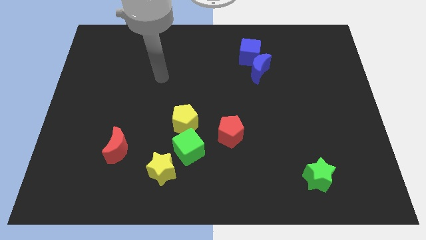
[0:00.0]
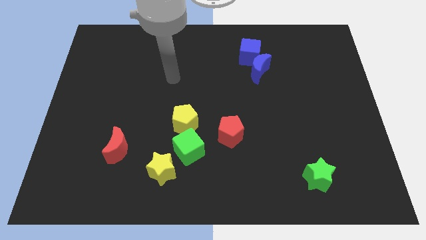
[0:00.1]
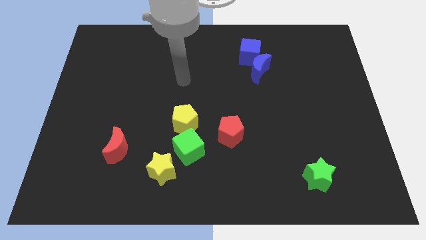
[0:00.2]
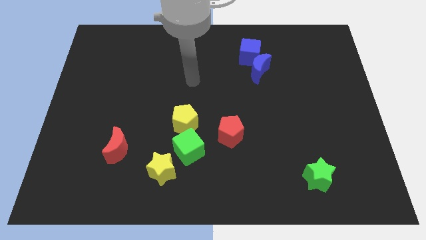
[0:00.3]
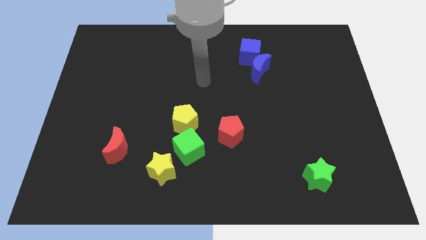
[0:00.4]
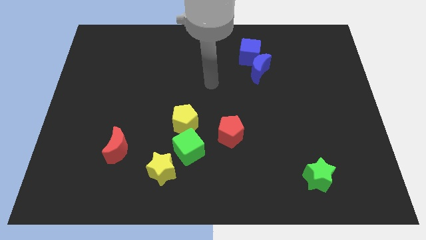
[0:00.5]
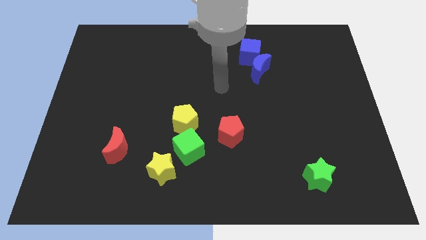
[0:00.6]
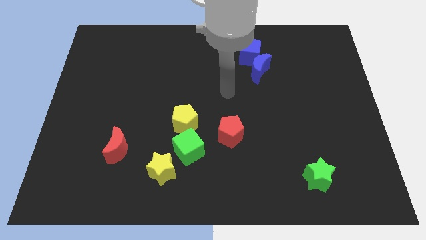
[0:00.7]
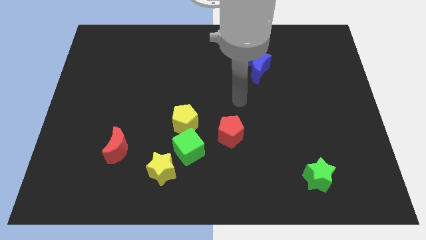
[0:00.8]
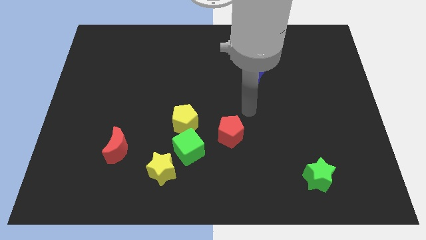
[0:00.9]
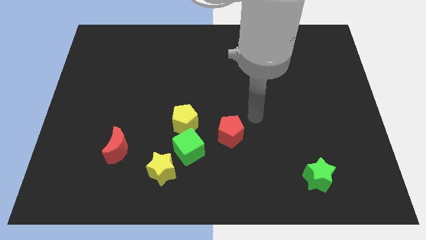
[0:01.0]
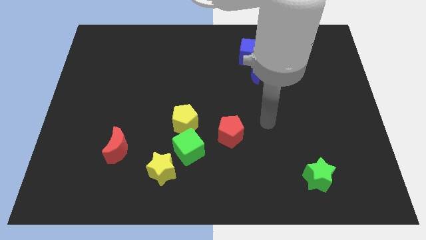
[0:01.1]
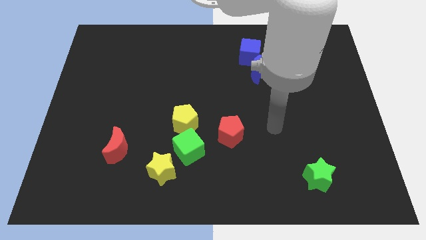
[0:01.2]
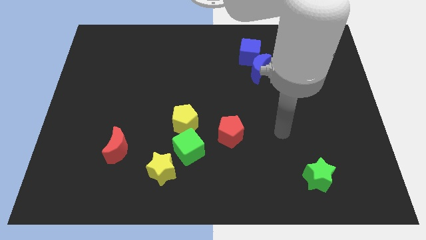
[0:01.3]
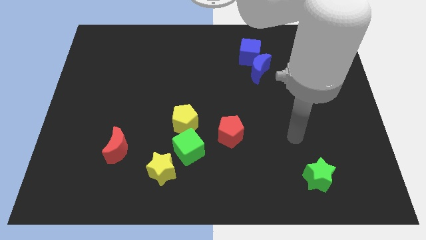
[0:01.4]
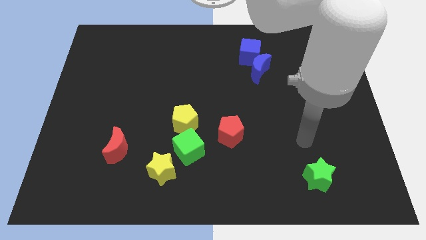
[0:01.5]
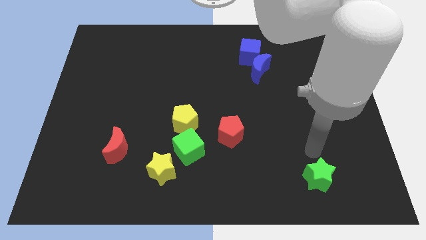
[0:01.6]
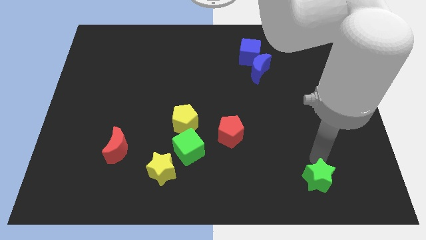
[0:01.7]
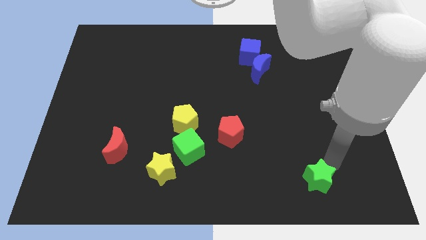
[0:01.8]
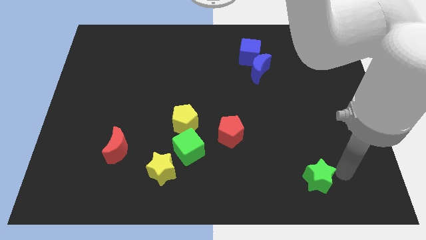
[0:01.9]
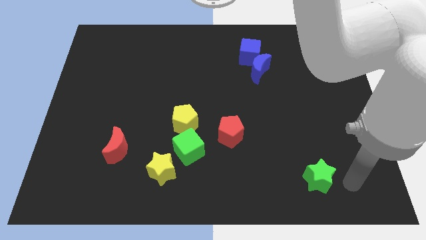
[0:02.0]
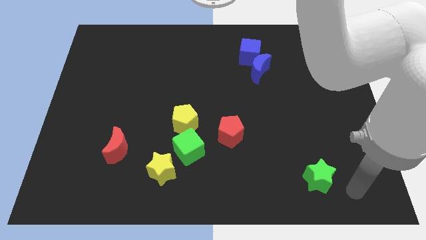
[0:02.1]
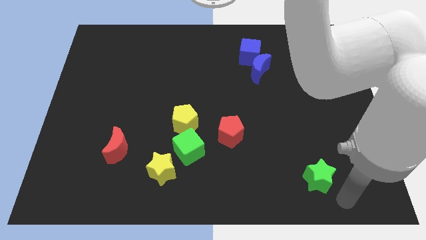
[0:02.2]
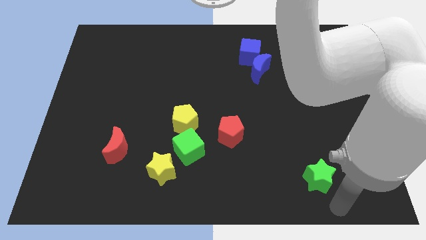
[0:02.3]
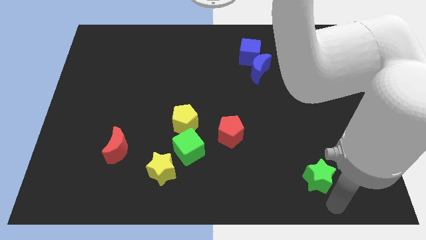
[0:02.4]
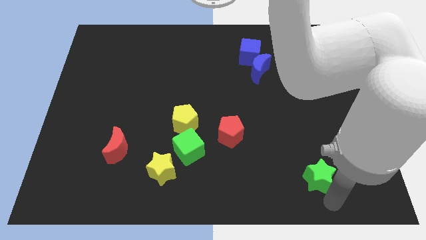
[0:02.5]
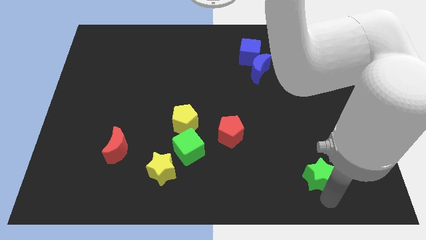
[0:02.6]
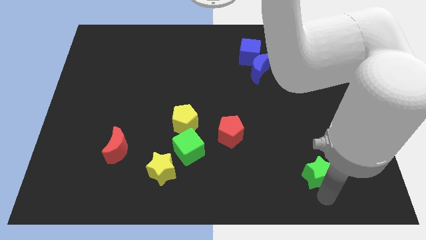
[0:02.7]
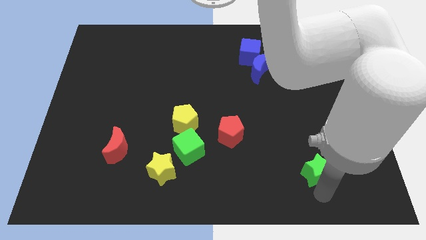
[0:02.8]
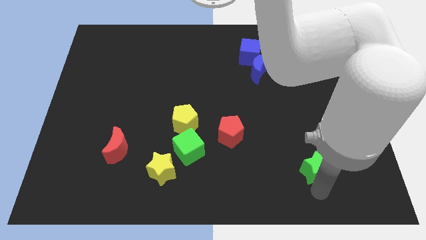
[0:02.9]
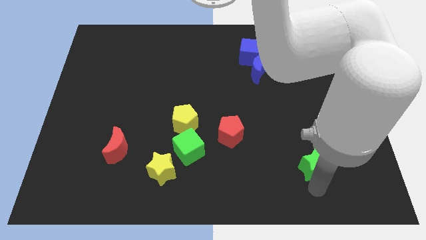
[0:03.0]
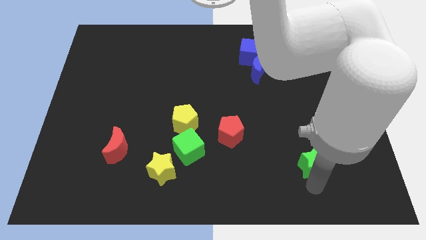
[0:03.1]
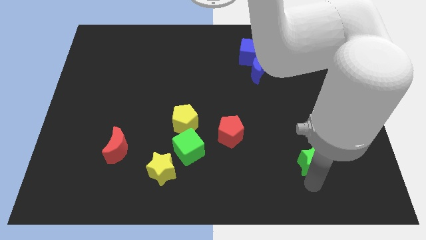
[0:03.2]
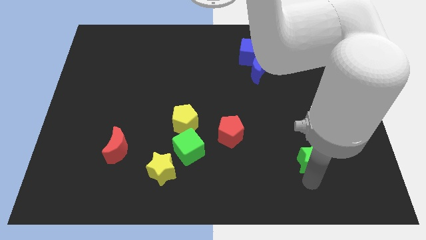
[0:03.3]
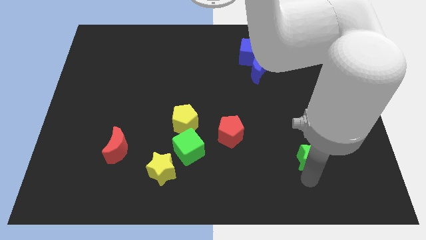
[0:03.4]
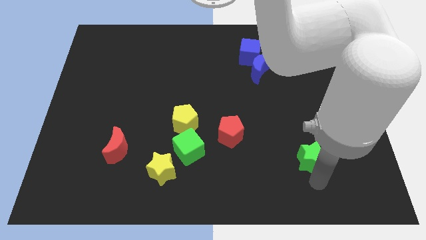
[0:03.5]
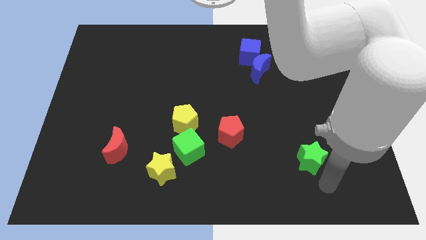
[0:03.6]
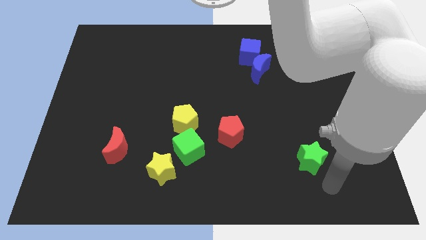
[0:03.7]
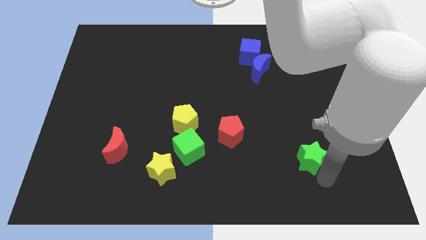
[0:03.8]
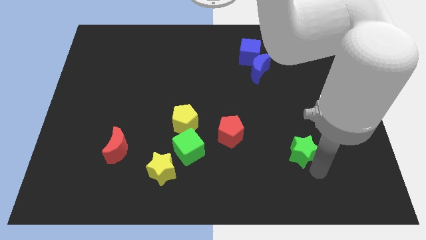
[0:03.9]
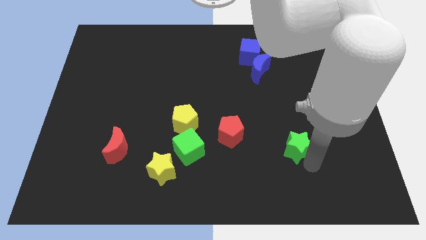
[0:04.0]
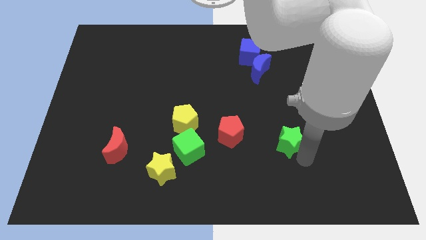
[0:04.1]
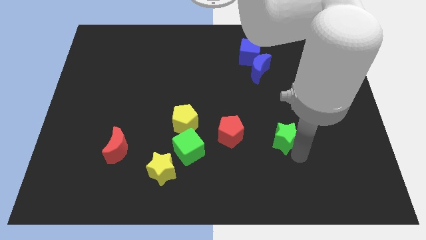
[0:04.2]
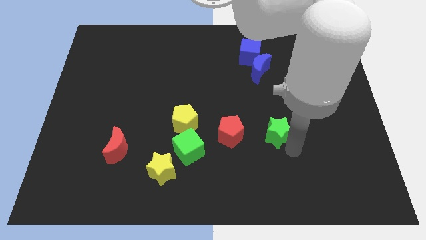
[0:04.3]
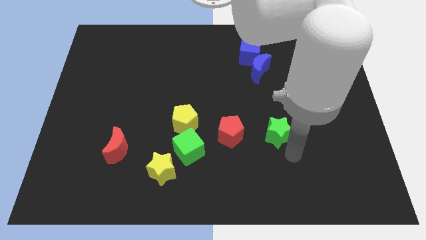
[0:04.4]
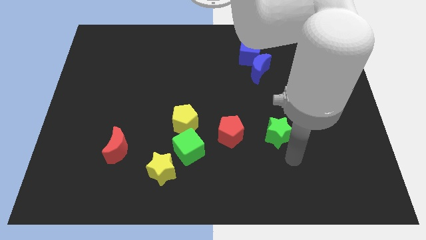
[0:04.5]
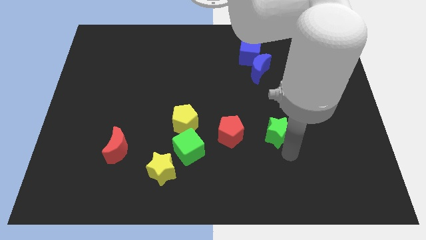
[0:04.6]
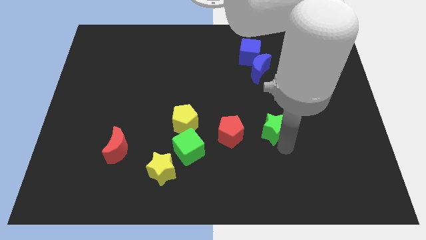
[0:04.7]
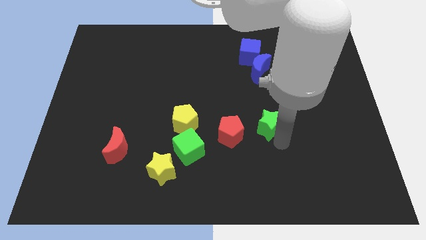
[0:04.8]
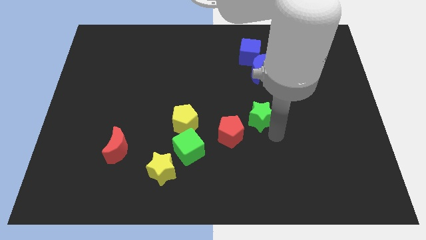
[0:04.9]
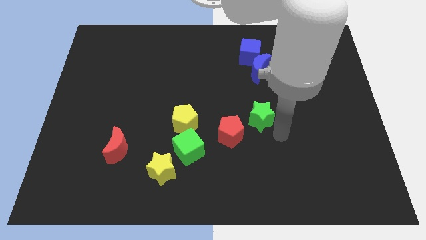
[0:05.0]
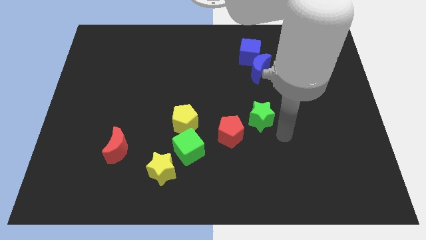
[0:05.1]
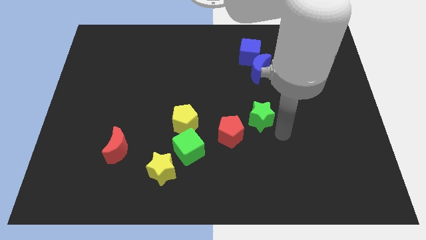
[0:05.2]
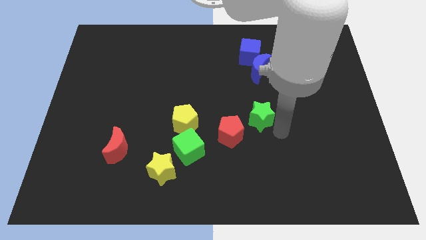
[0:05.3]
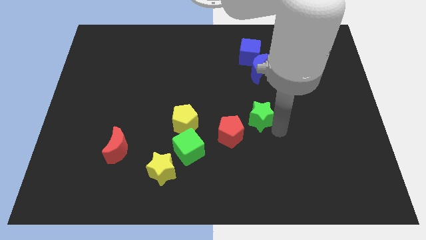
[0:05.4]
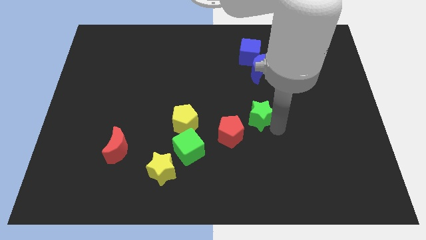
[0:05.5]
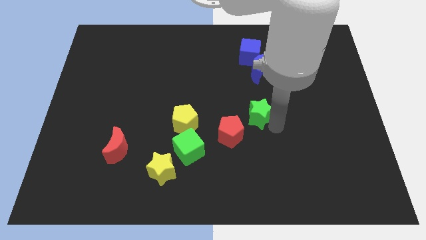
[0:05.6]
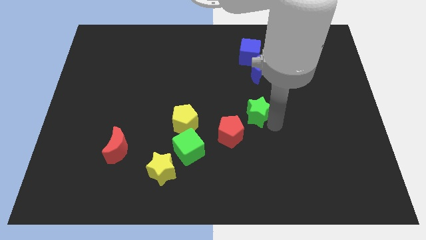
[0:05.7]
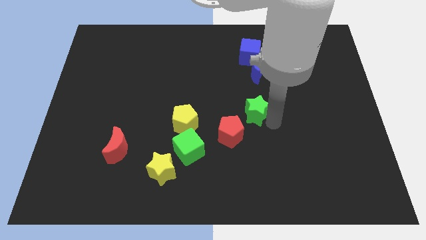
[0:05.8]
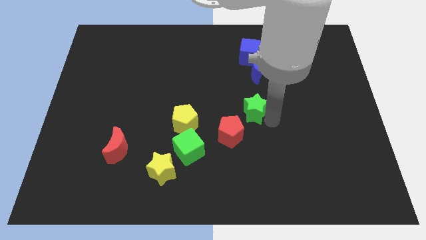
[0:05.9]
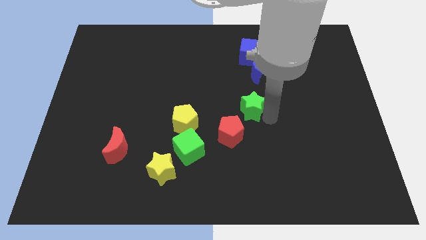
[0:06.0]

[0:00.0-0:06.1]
push the green star upwards and to the left diagonally

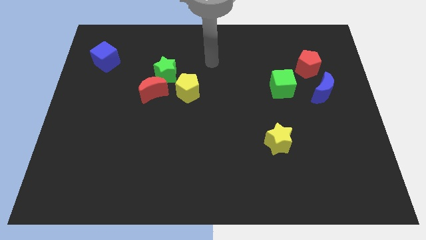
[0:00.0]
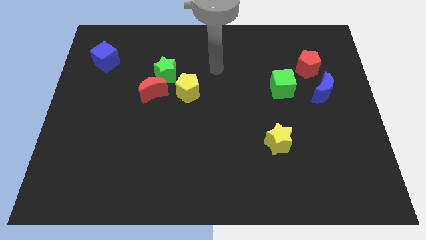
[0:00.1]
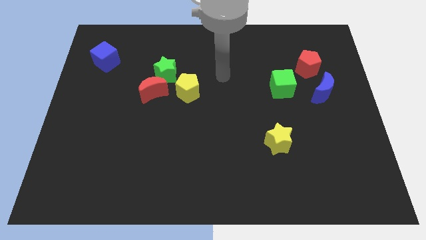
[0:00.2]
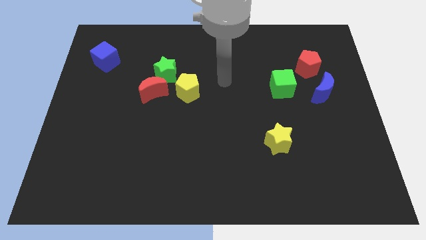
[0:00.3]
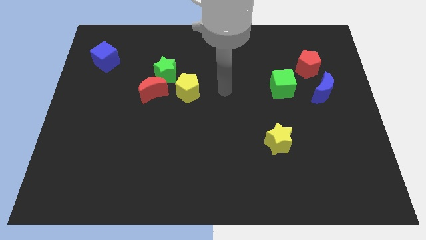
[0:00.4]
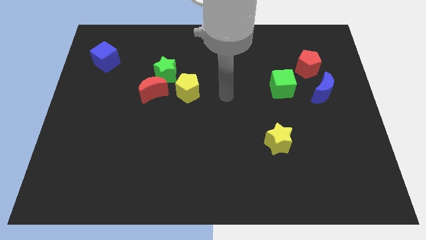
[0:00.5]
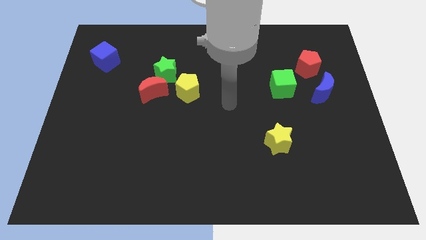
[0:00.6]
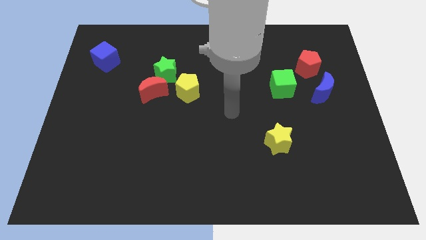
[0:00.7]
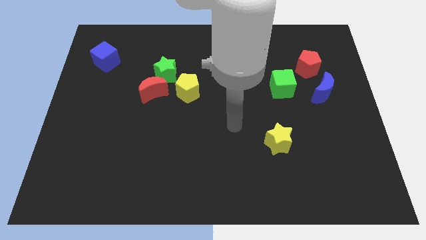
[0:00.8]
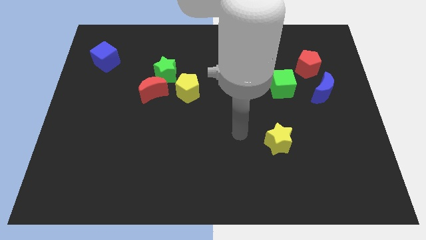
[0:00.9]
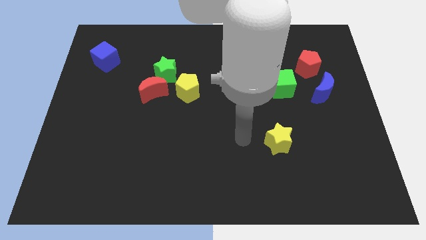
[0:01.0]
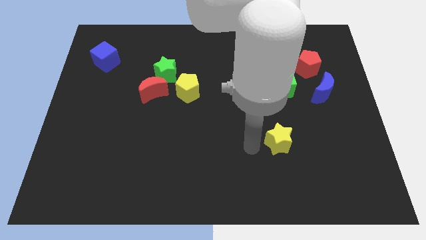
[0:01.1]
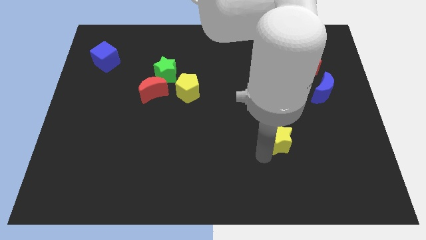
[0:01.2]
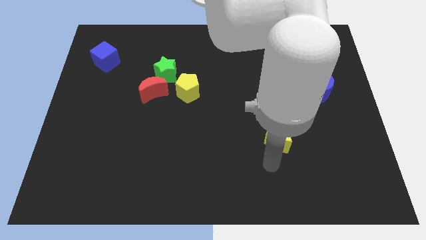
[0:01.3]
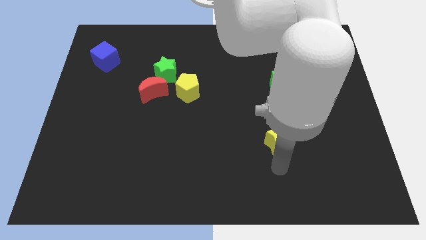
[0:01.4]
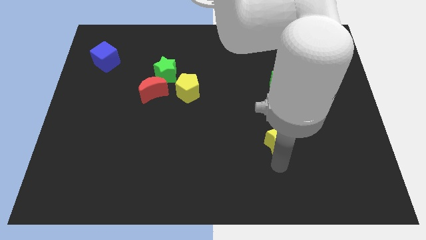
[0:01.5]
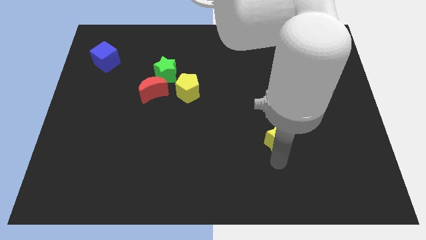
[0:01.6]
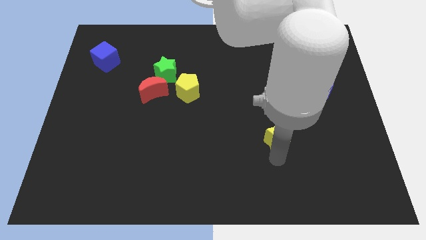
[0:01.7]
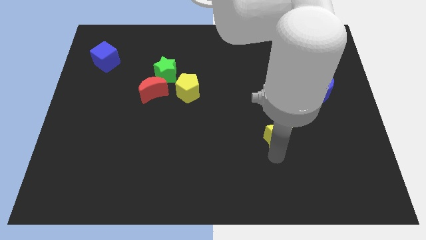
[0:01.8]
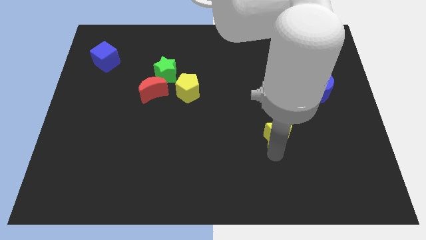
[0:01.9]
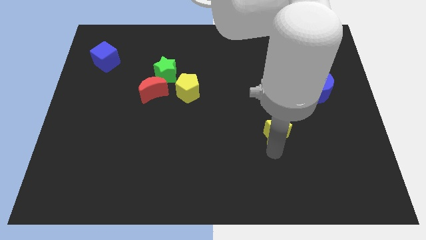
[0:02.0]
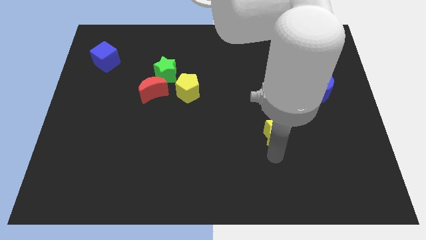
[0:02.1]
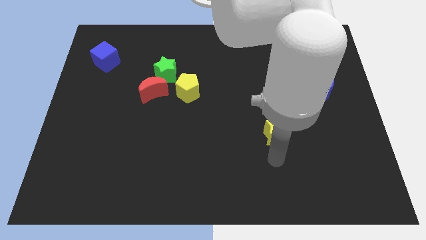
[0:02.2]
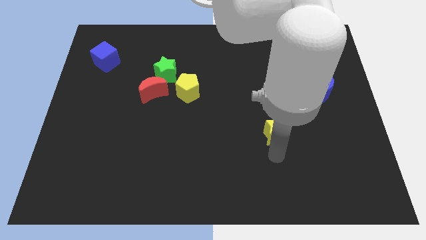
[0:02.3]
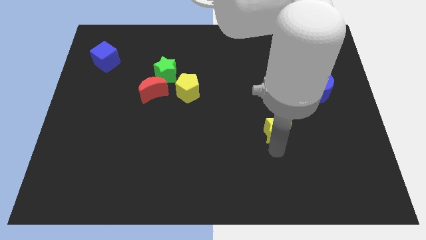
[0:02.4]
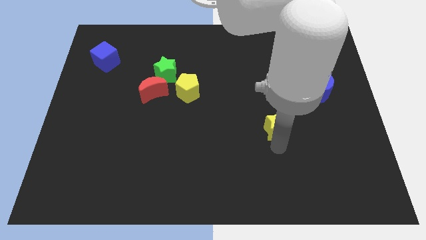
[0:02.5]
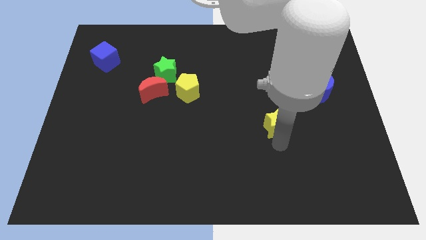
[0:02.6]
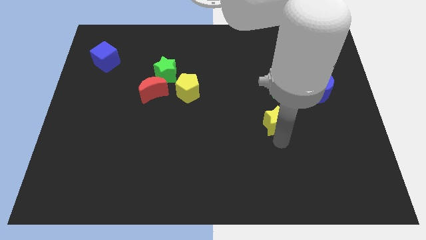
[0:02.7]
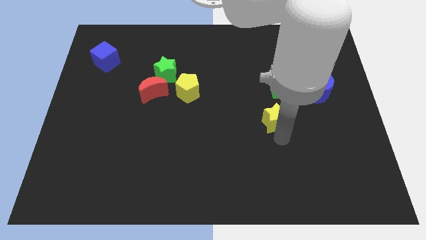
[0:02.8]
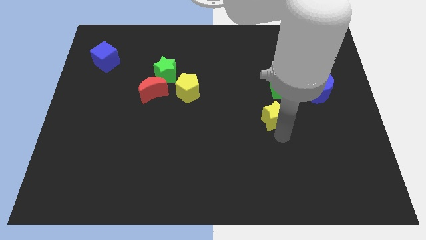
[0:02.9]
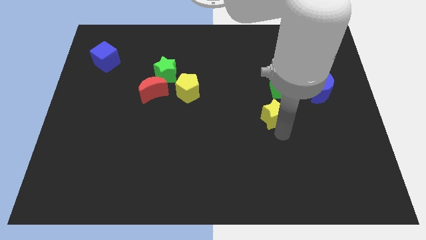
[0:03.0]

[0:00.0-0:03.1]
slide the yellow star upwards a little
